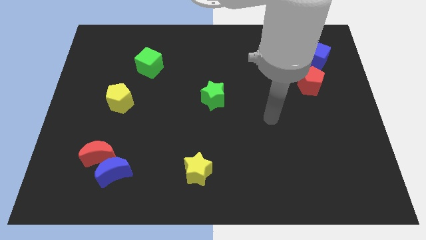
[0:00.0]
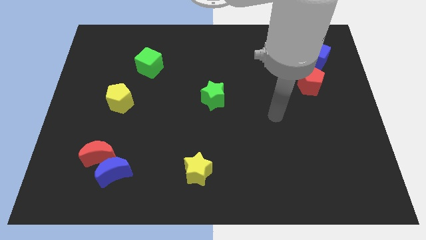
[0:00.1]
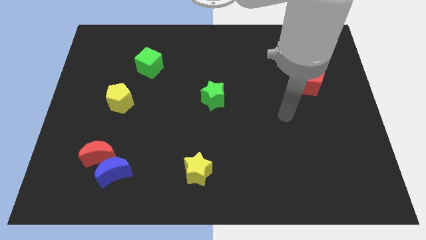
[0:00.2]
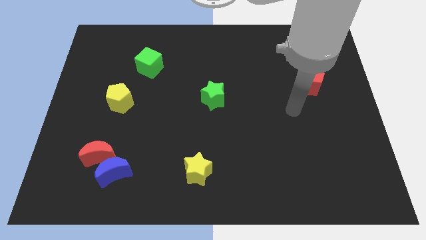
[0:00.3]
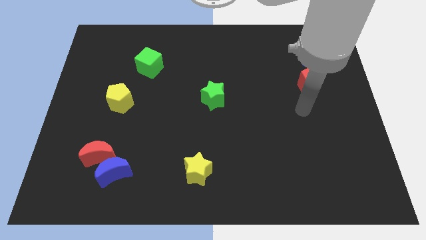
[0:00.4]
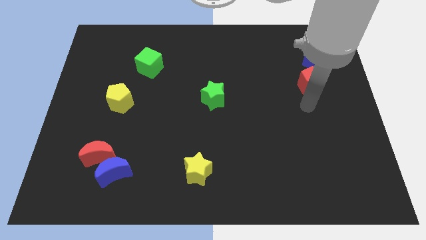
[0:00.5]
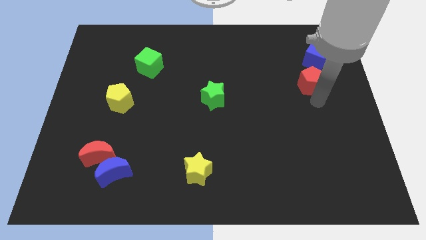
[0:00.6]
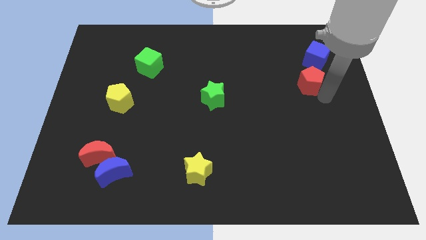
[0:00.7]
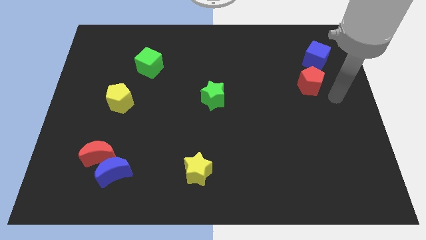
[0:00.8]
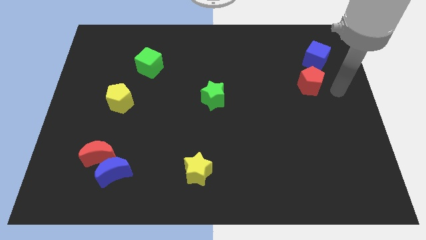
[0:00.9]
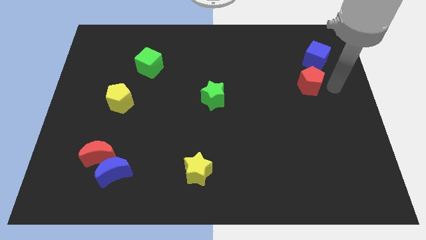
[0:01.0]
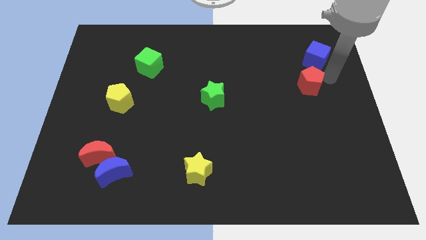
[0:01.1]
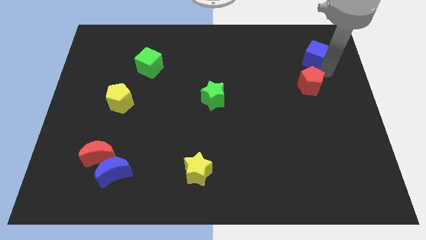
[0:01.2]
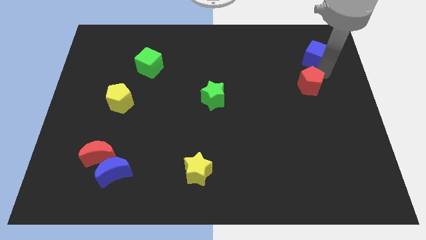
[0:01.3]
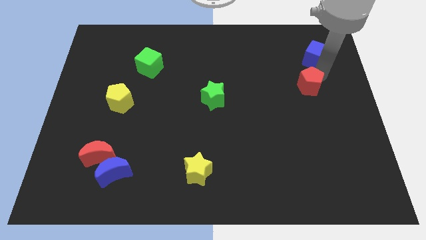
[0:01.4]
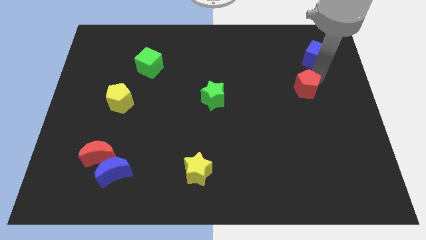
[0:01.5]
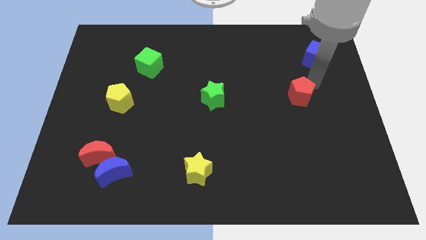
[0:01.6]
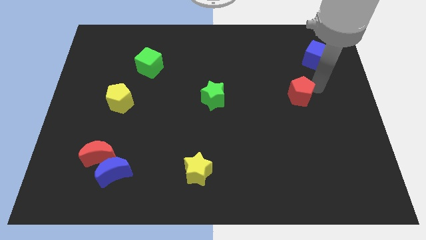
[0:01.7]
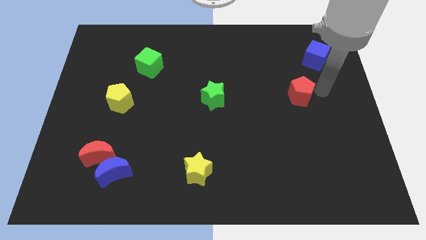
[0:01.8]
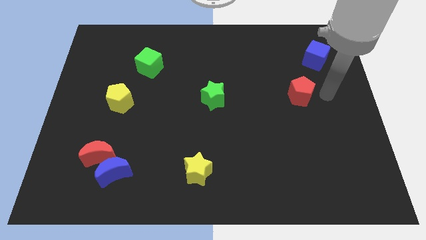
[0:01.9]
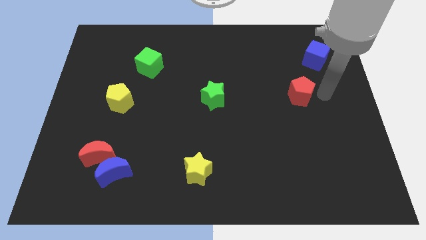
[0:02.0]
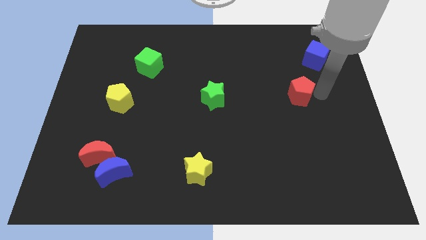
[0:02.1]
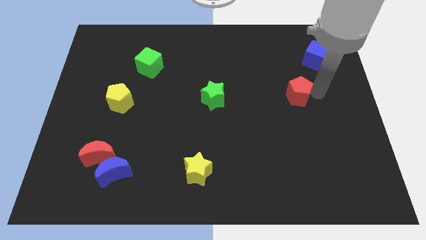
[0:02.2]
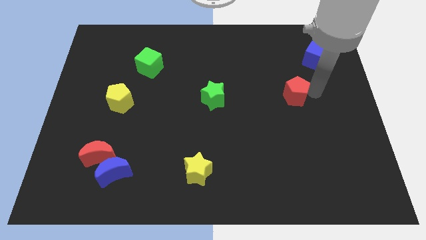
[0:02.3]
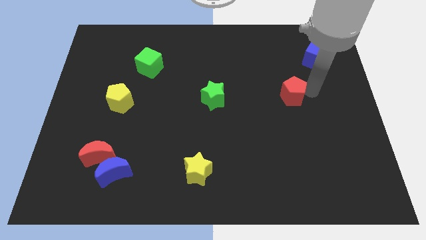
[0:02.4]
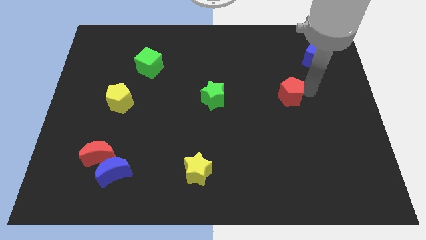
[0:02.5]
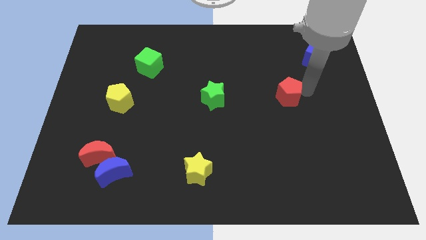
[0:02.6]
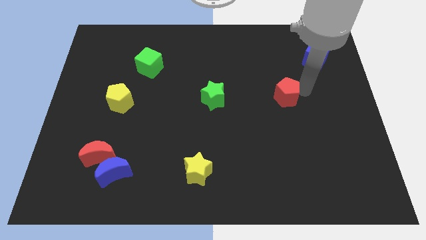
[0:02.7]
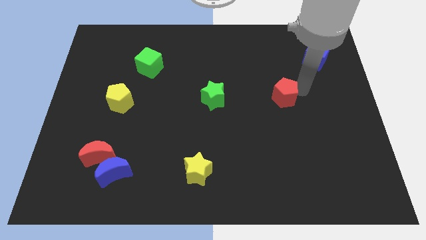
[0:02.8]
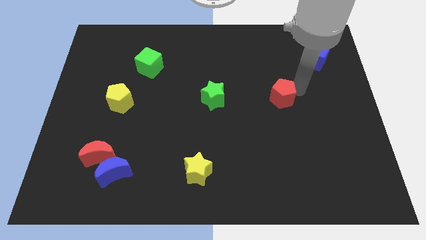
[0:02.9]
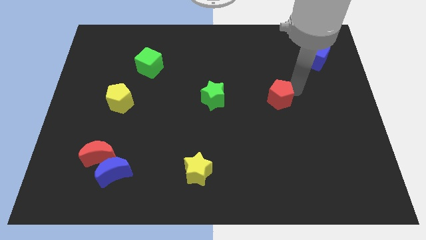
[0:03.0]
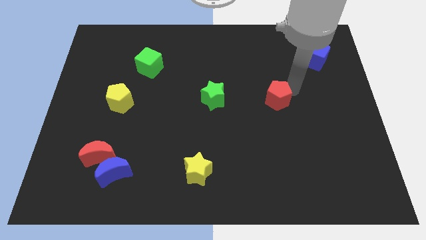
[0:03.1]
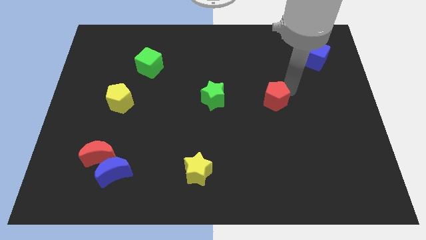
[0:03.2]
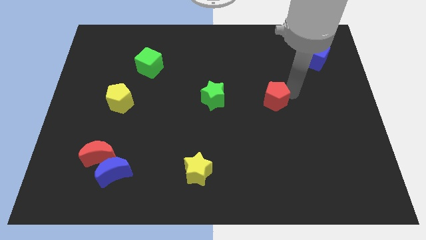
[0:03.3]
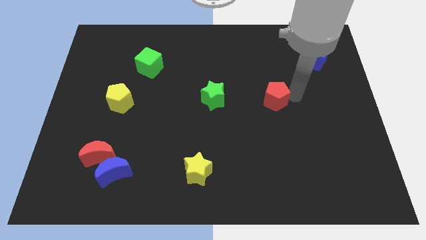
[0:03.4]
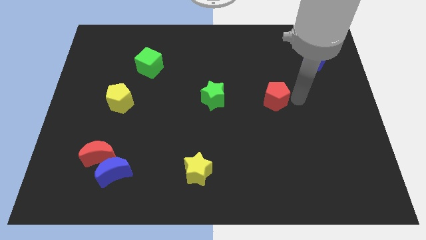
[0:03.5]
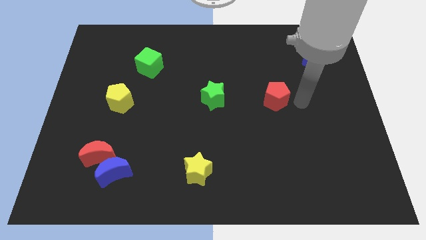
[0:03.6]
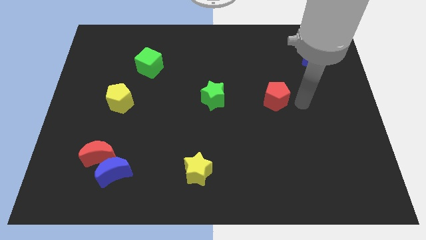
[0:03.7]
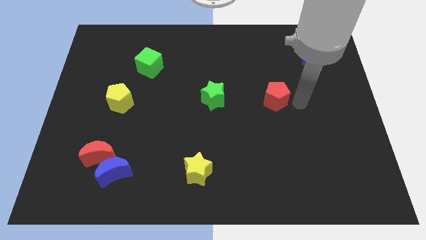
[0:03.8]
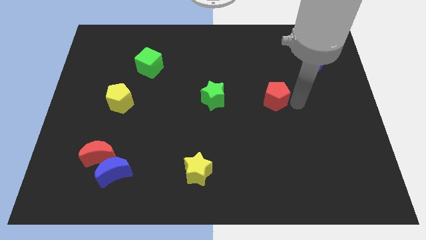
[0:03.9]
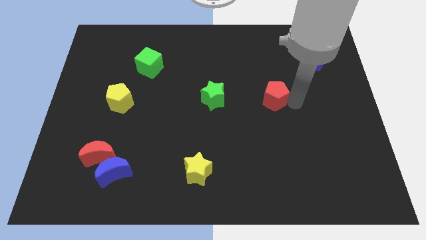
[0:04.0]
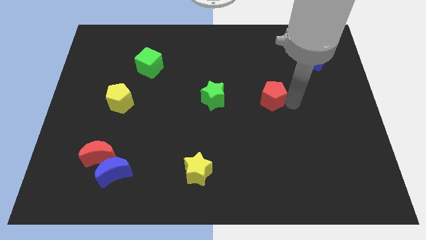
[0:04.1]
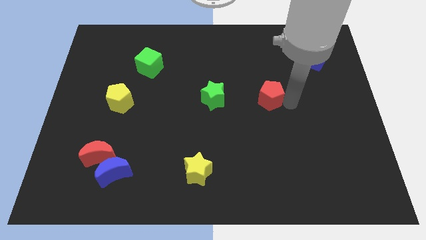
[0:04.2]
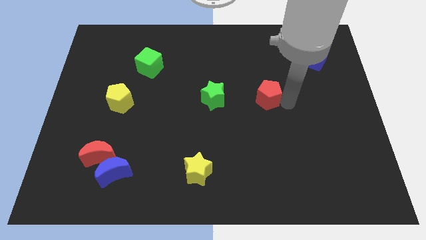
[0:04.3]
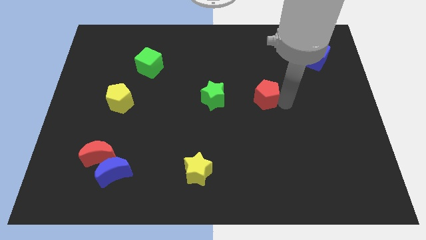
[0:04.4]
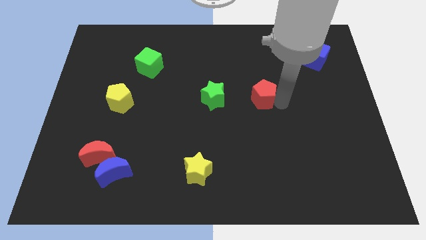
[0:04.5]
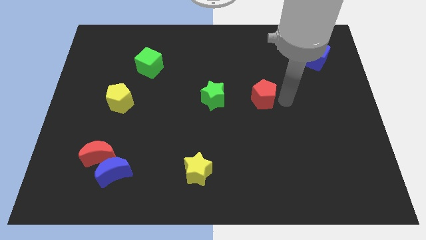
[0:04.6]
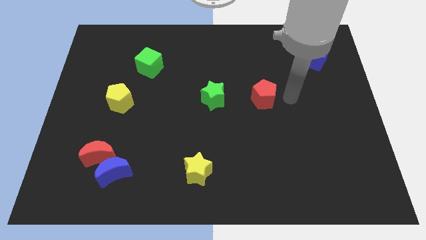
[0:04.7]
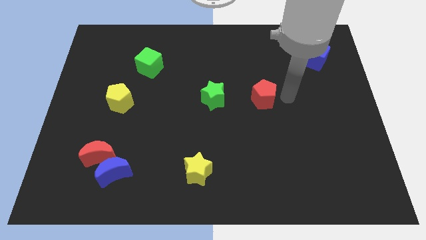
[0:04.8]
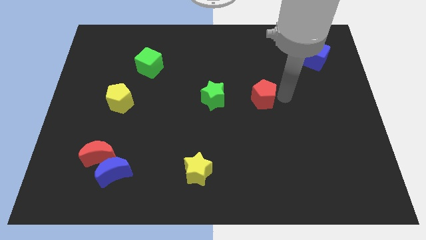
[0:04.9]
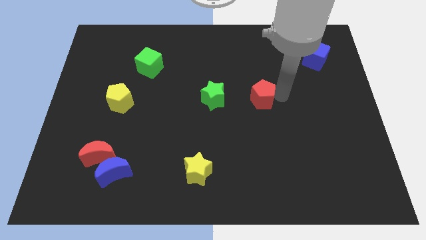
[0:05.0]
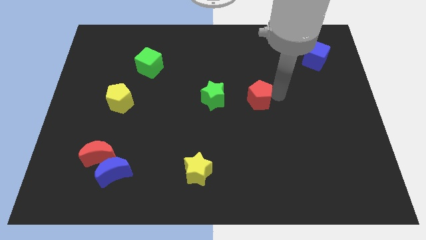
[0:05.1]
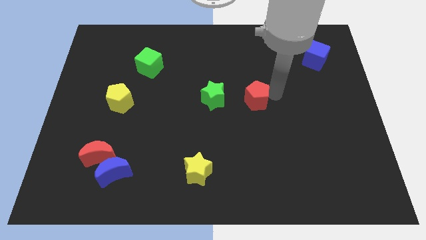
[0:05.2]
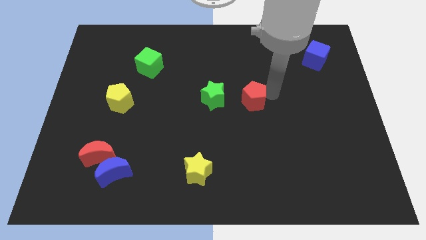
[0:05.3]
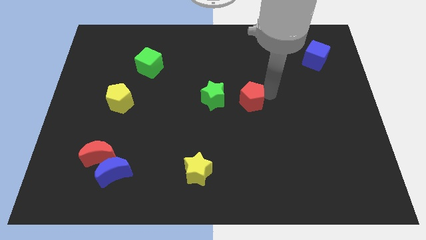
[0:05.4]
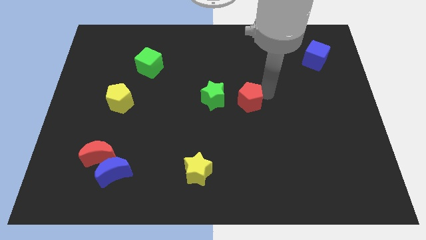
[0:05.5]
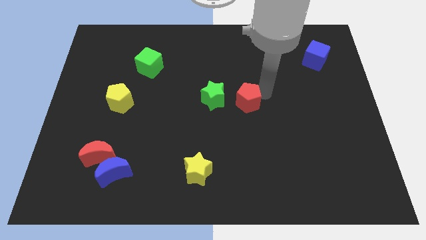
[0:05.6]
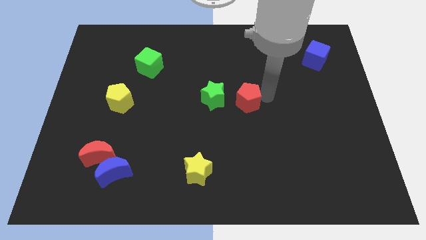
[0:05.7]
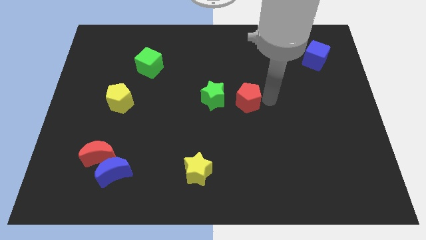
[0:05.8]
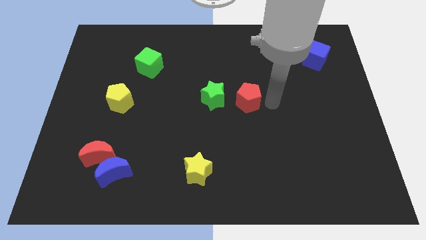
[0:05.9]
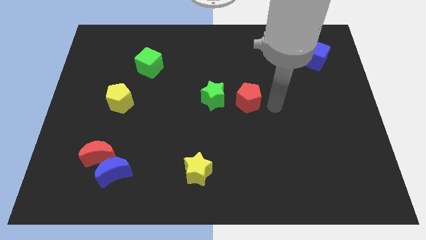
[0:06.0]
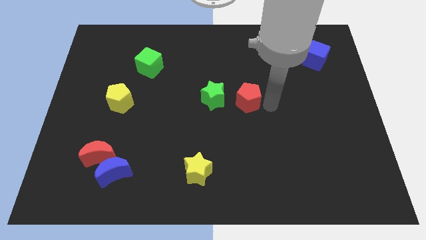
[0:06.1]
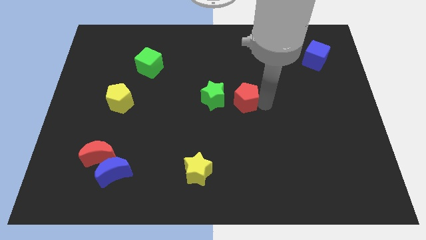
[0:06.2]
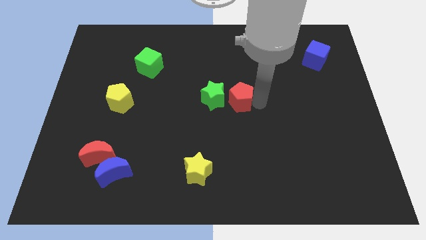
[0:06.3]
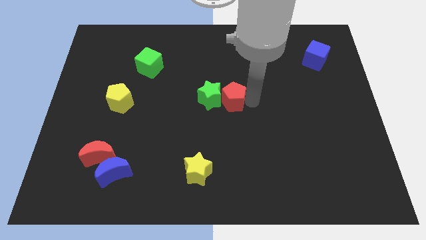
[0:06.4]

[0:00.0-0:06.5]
push the red pentagon towards the green star

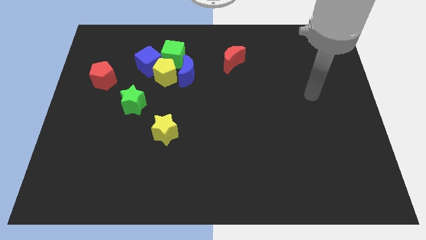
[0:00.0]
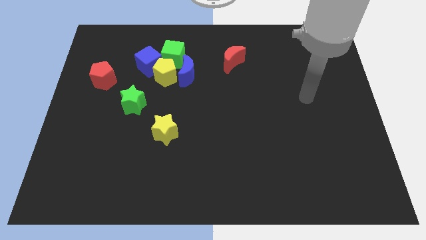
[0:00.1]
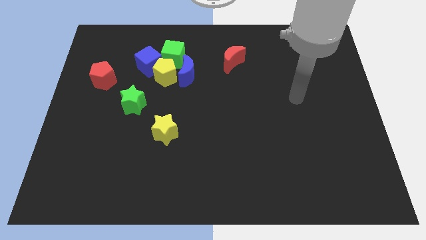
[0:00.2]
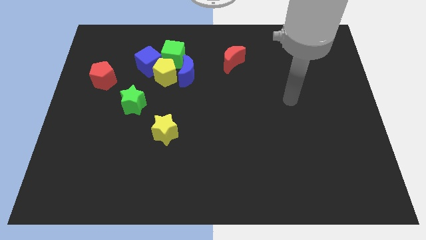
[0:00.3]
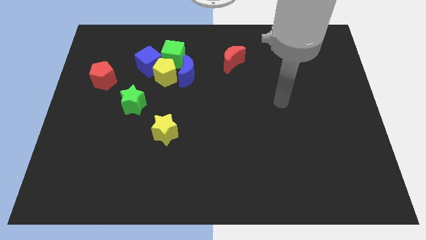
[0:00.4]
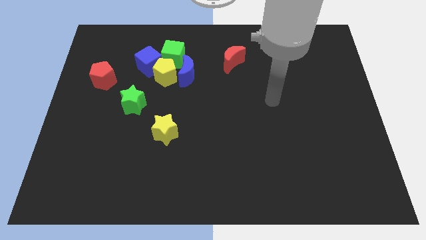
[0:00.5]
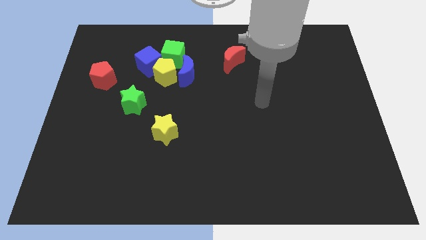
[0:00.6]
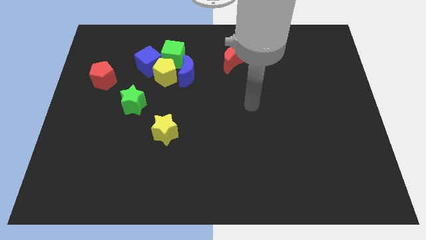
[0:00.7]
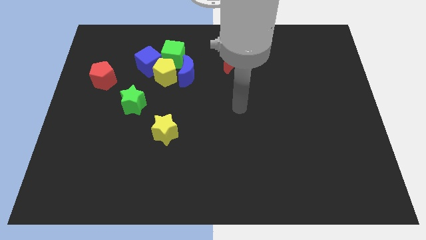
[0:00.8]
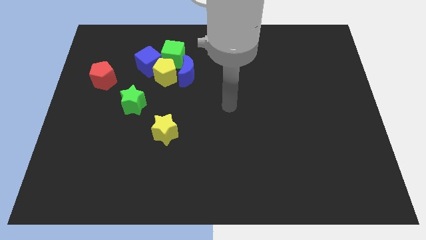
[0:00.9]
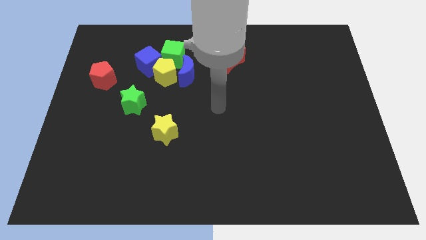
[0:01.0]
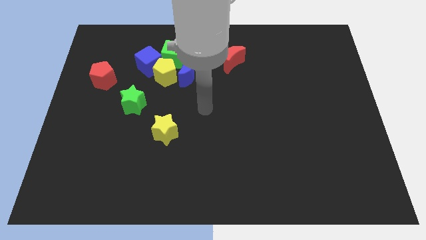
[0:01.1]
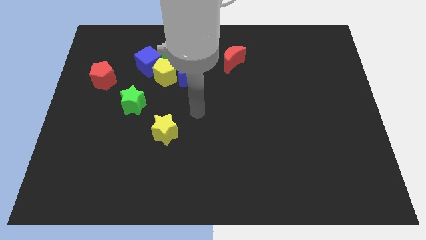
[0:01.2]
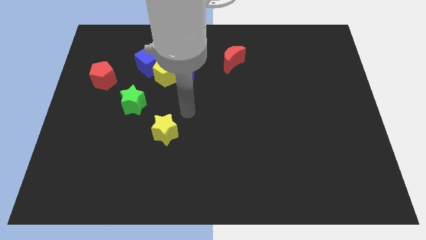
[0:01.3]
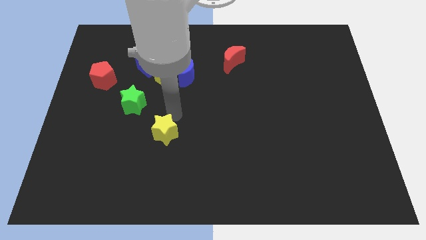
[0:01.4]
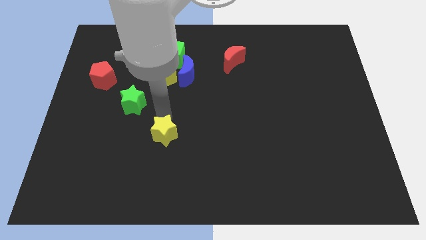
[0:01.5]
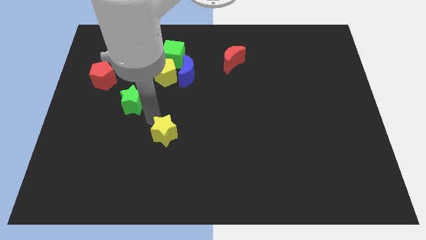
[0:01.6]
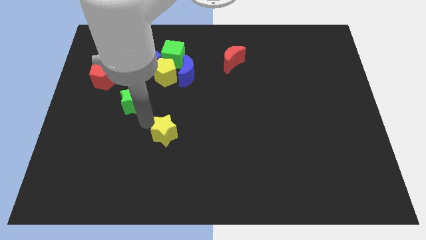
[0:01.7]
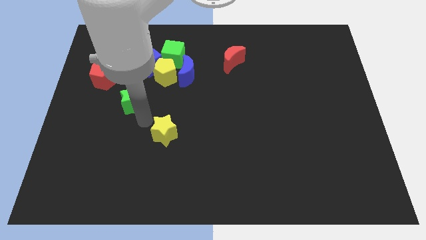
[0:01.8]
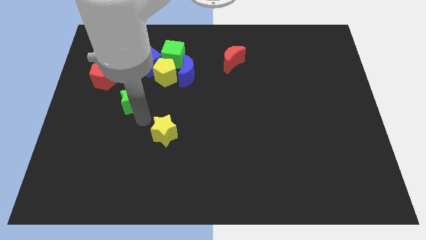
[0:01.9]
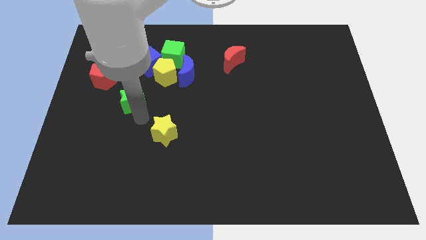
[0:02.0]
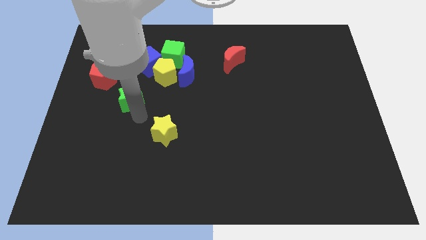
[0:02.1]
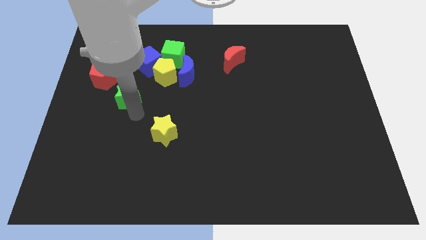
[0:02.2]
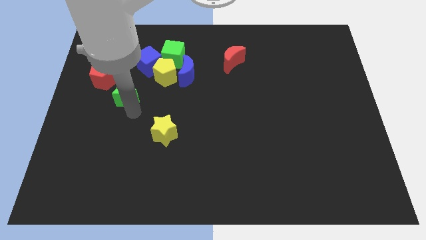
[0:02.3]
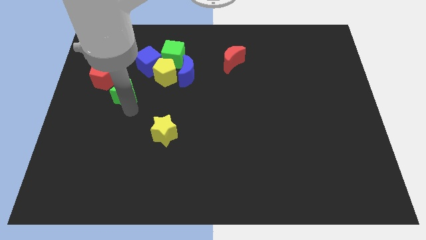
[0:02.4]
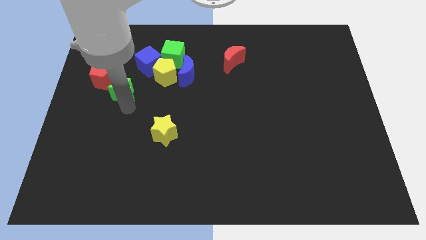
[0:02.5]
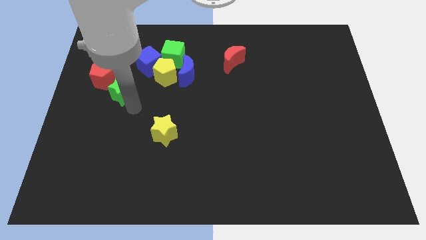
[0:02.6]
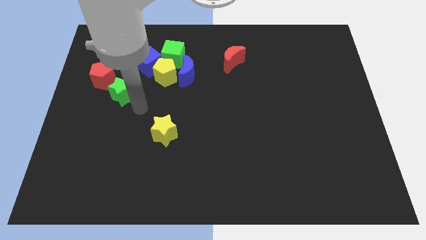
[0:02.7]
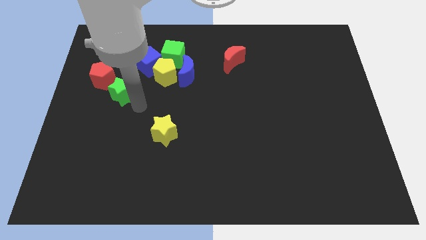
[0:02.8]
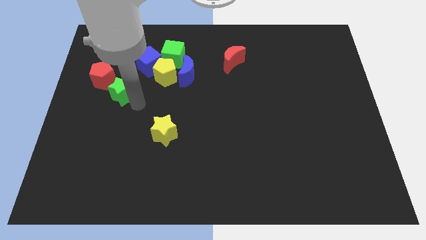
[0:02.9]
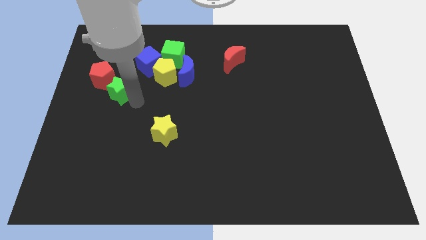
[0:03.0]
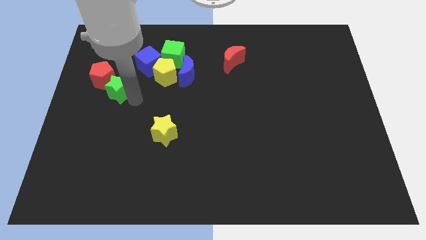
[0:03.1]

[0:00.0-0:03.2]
put the green star to the red pentagon
